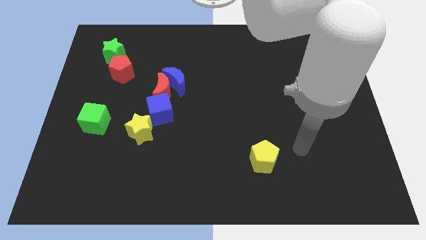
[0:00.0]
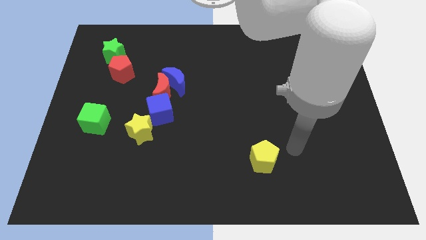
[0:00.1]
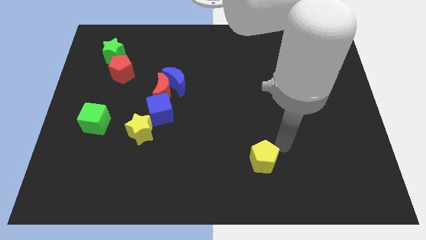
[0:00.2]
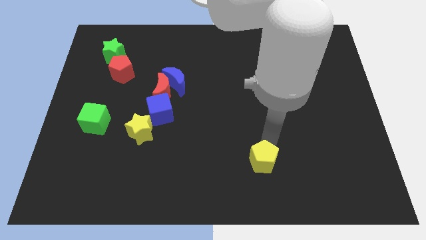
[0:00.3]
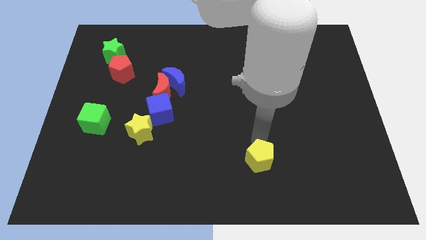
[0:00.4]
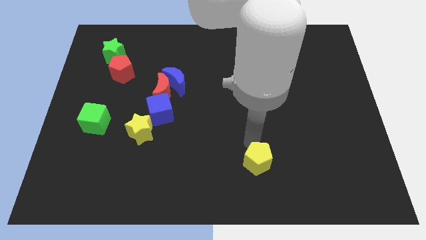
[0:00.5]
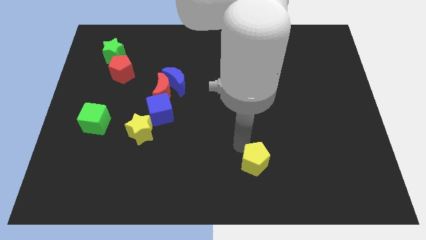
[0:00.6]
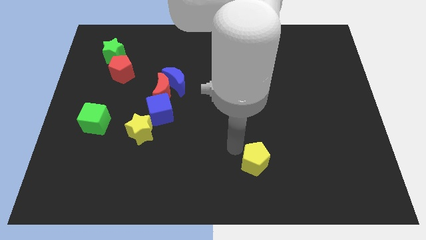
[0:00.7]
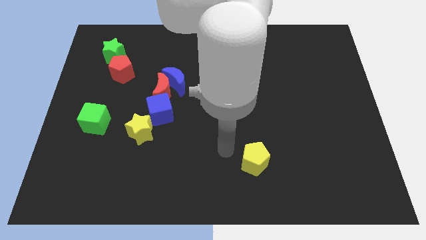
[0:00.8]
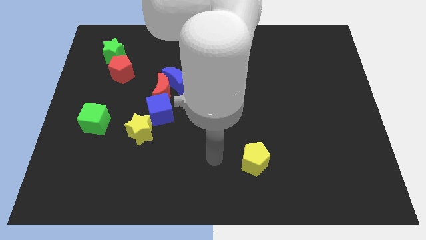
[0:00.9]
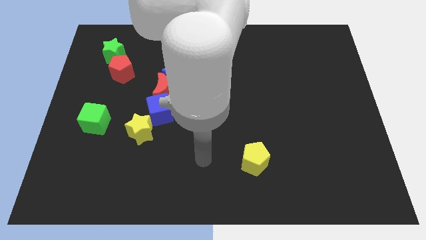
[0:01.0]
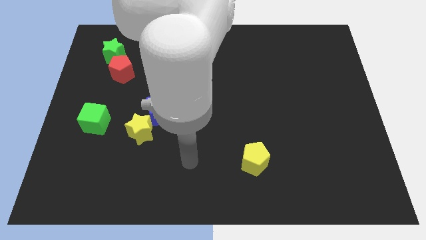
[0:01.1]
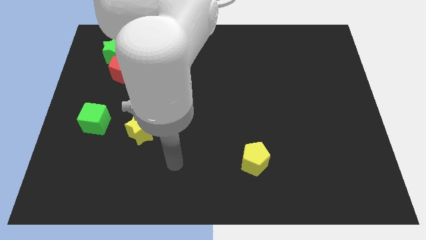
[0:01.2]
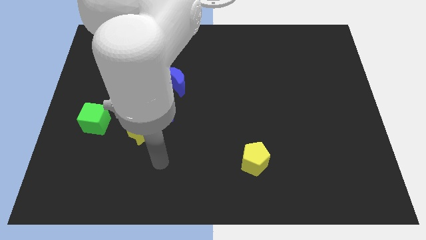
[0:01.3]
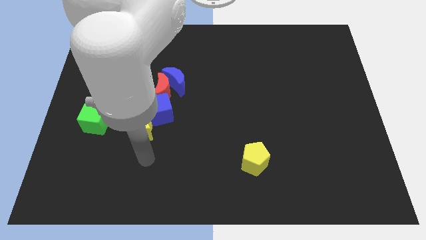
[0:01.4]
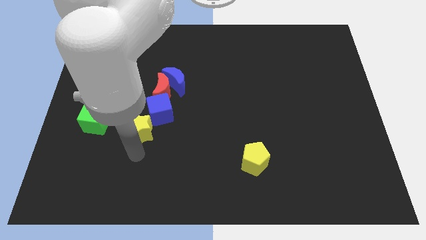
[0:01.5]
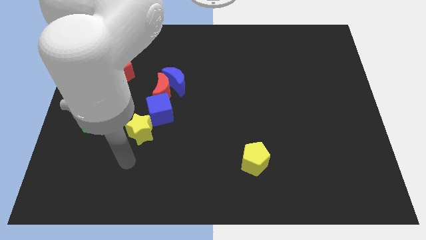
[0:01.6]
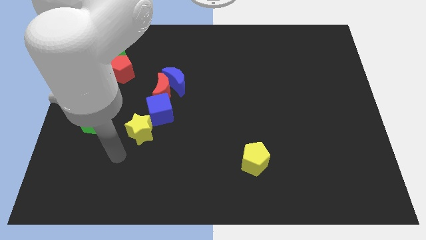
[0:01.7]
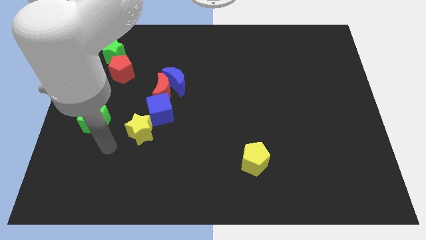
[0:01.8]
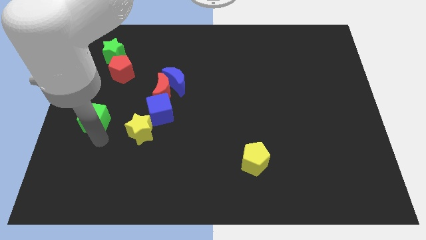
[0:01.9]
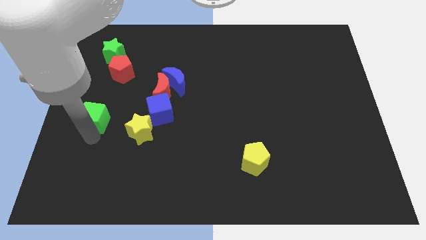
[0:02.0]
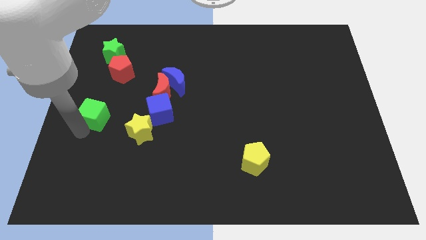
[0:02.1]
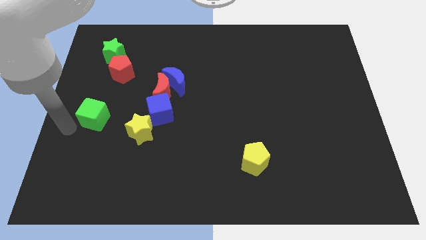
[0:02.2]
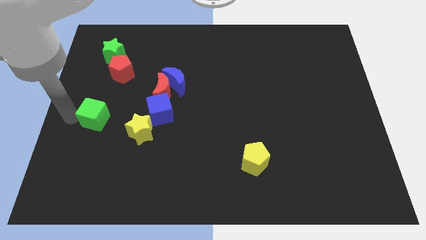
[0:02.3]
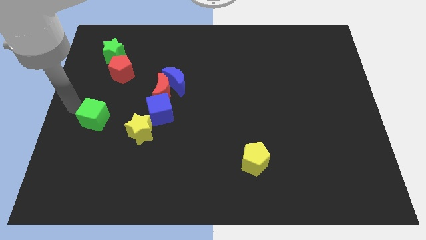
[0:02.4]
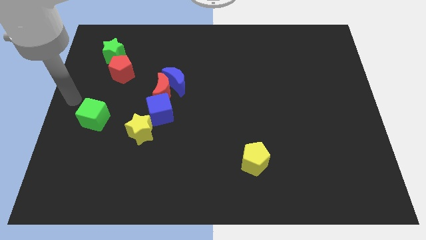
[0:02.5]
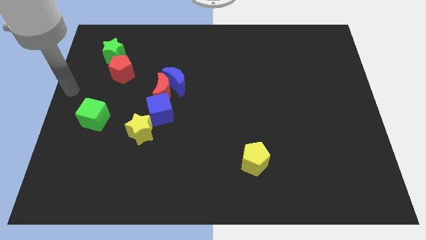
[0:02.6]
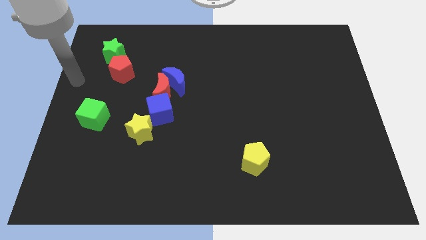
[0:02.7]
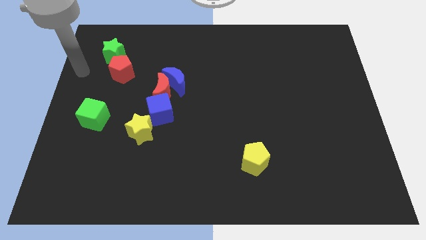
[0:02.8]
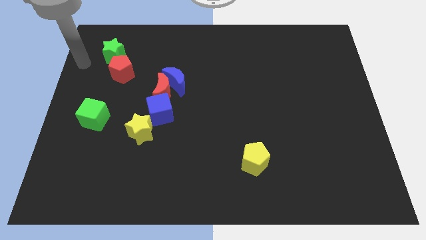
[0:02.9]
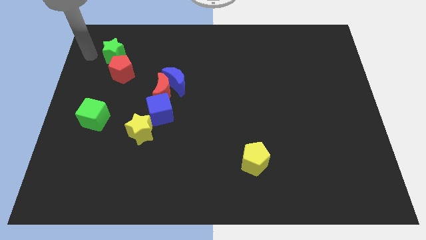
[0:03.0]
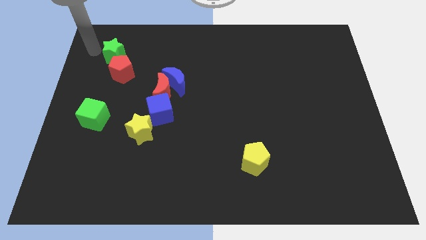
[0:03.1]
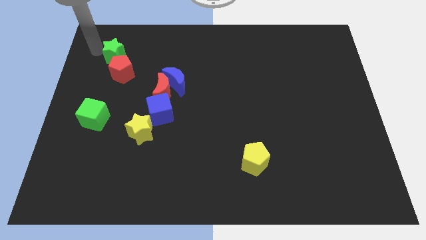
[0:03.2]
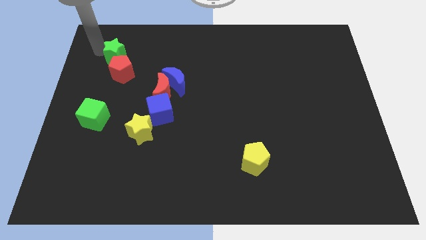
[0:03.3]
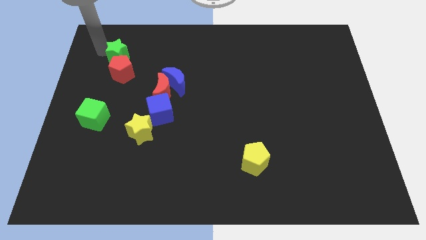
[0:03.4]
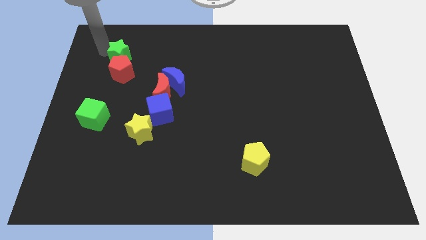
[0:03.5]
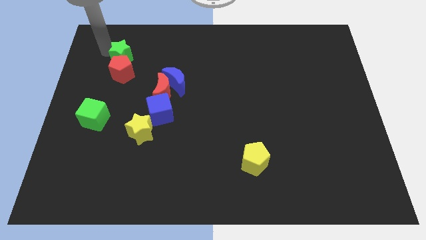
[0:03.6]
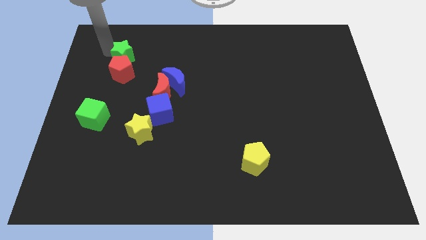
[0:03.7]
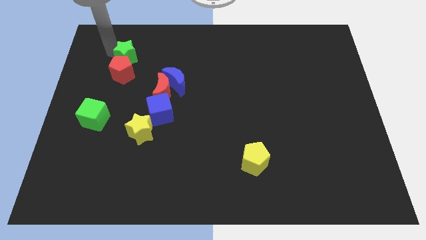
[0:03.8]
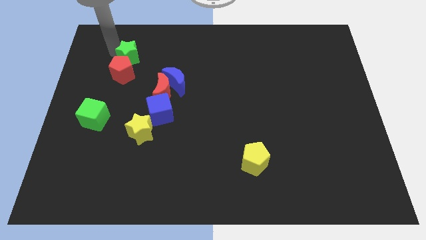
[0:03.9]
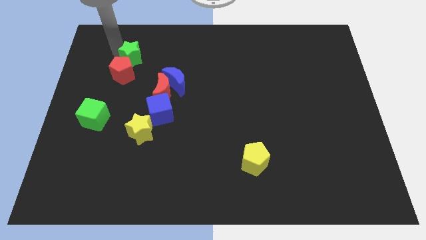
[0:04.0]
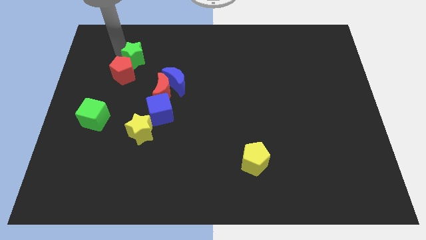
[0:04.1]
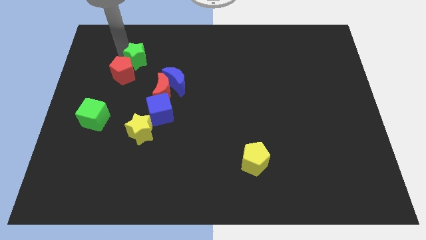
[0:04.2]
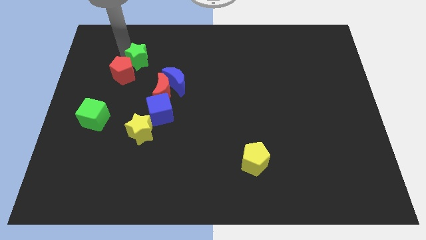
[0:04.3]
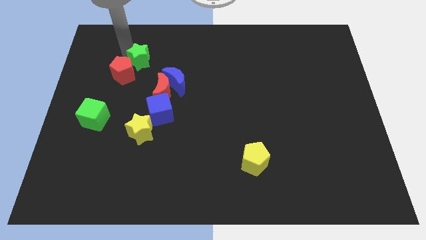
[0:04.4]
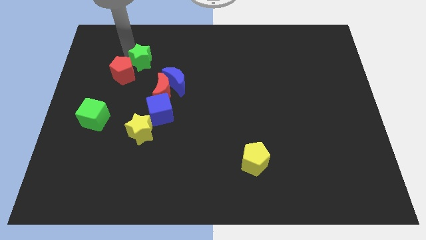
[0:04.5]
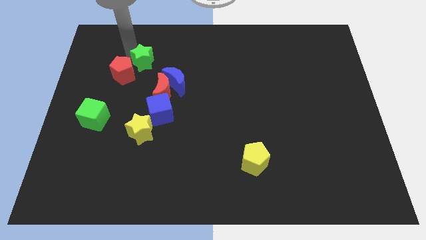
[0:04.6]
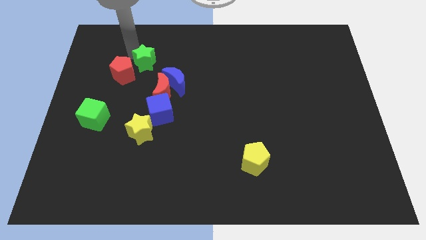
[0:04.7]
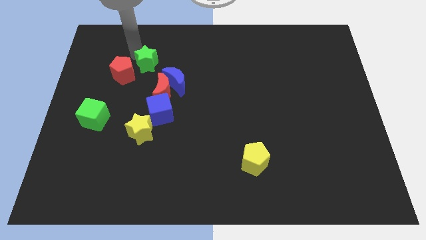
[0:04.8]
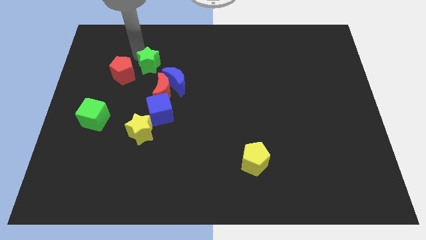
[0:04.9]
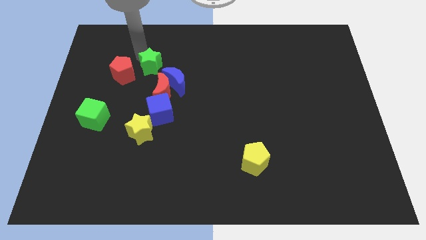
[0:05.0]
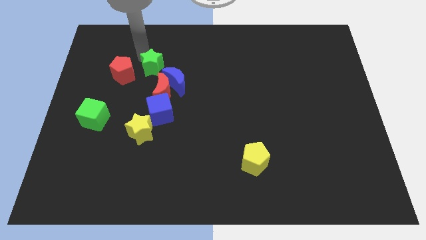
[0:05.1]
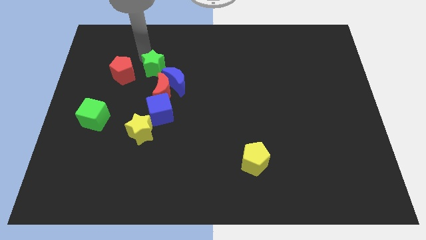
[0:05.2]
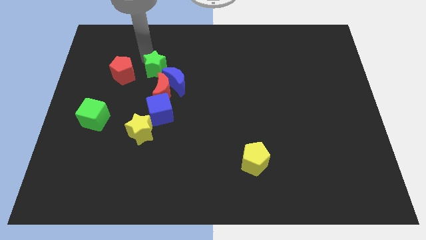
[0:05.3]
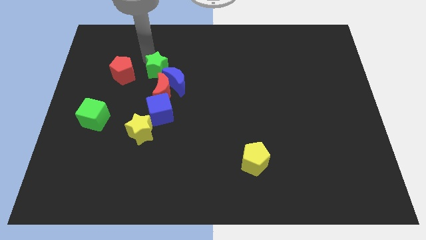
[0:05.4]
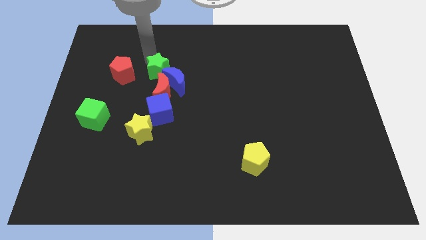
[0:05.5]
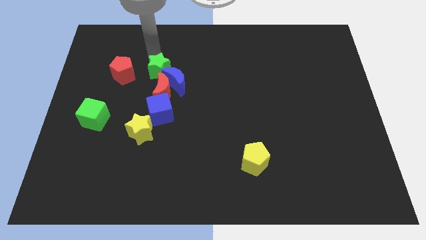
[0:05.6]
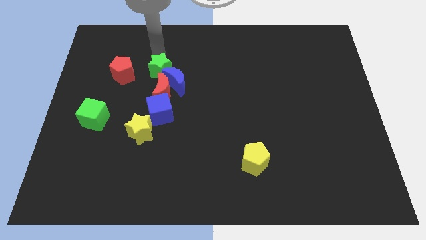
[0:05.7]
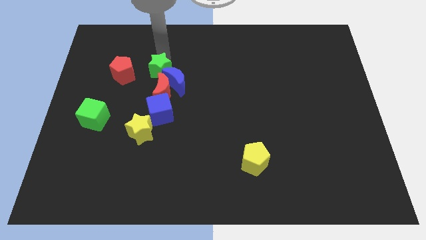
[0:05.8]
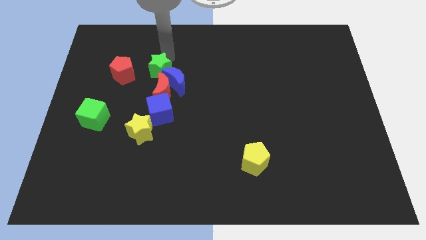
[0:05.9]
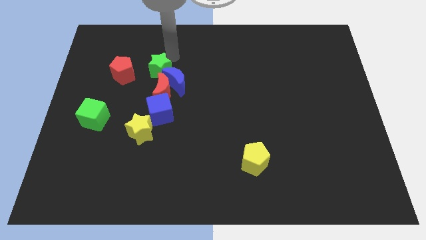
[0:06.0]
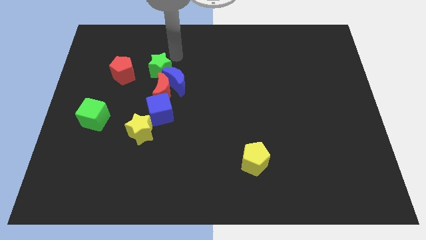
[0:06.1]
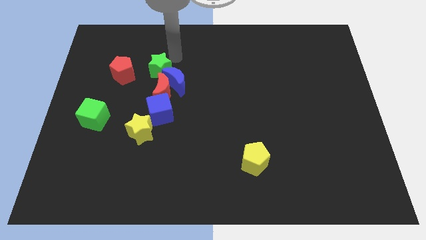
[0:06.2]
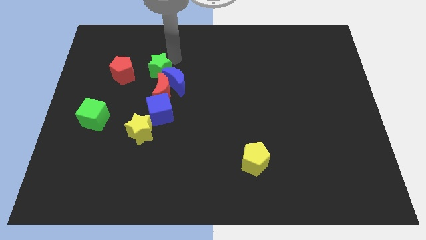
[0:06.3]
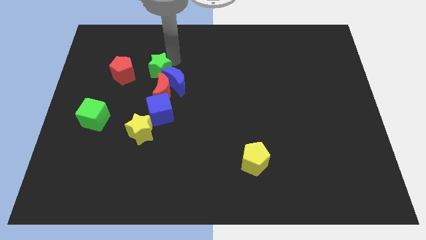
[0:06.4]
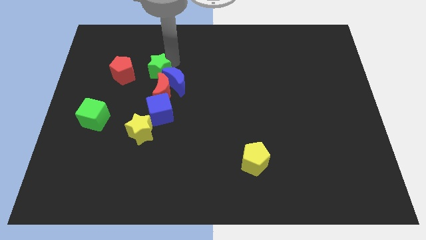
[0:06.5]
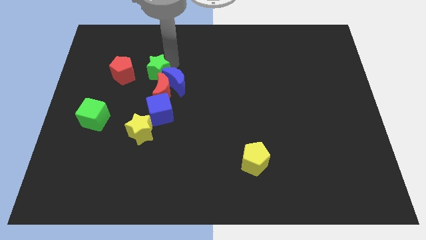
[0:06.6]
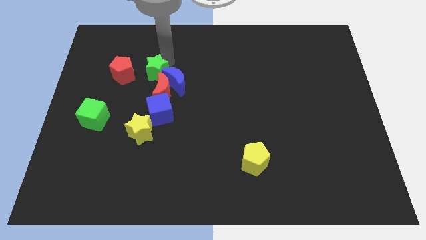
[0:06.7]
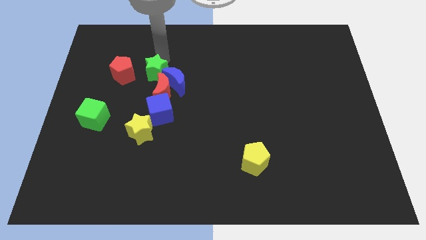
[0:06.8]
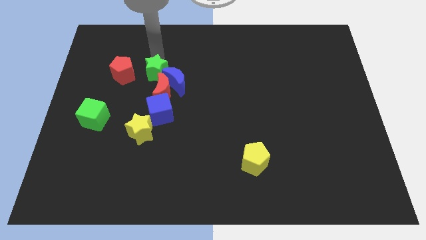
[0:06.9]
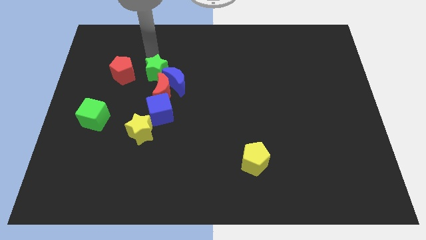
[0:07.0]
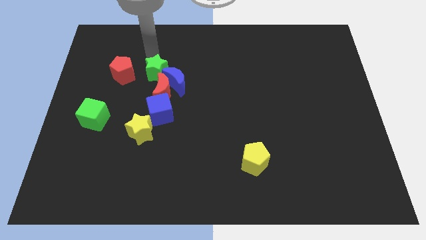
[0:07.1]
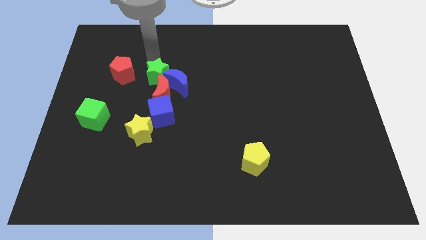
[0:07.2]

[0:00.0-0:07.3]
slide the green star close to the red moon
